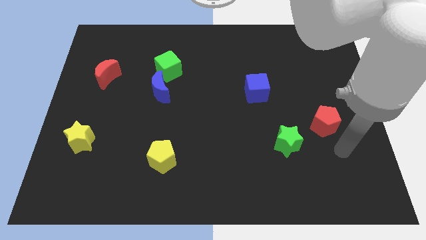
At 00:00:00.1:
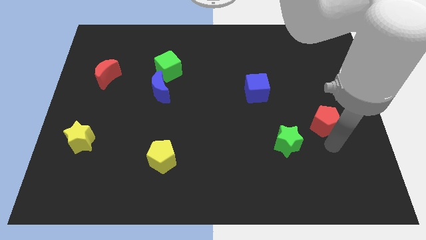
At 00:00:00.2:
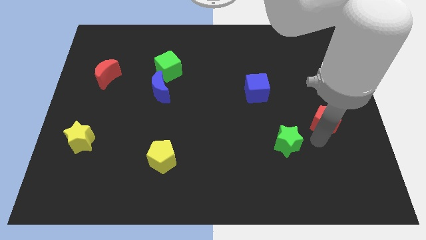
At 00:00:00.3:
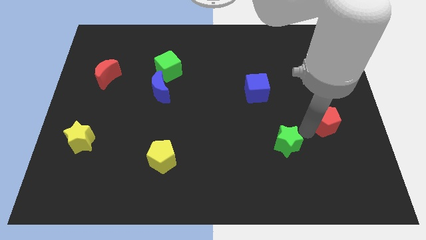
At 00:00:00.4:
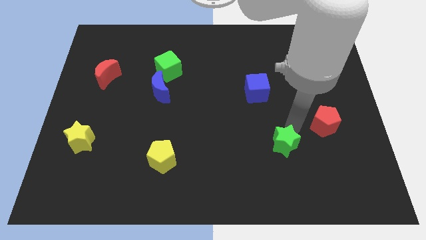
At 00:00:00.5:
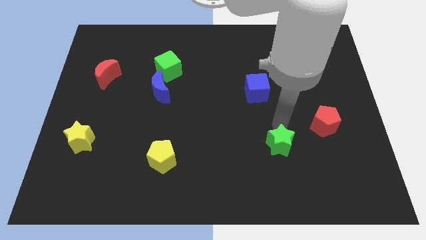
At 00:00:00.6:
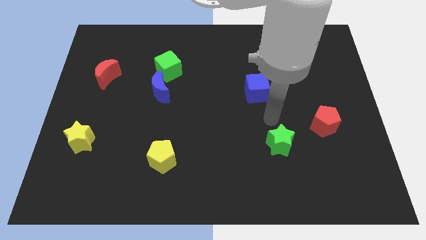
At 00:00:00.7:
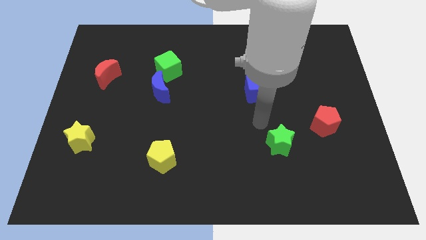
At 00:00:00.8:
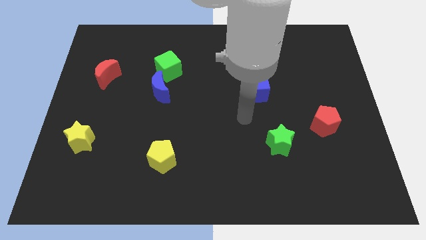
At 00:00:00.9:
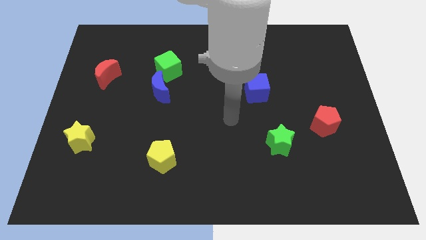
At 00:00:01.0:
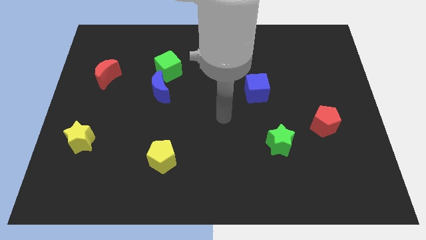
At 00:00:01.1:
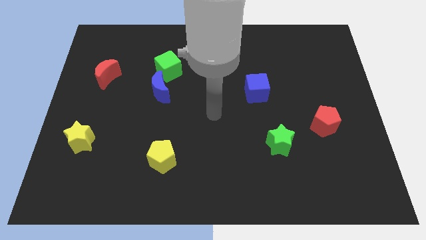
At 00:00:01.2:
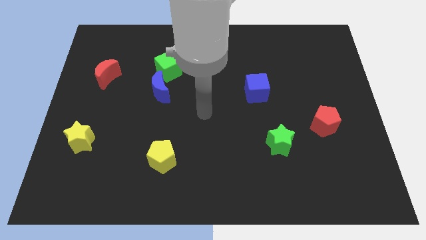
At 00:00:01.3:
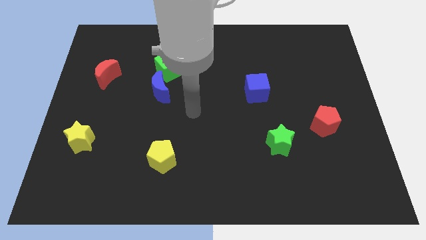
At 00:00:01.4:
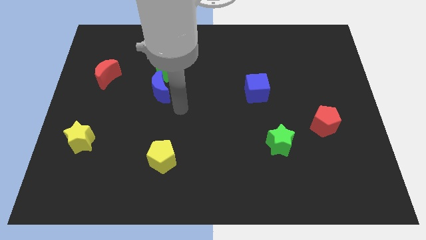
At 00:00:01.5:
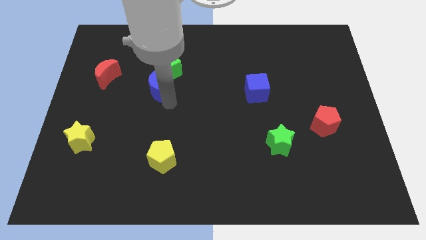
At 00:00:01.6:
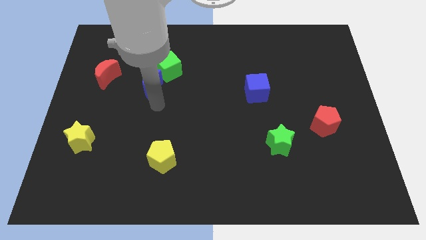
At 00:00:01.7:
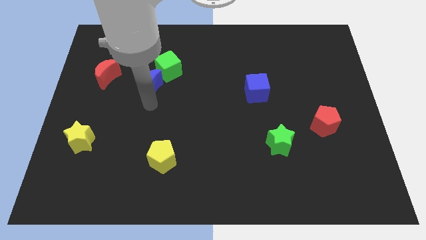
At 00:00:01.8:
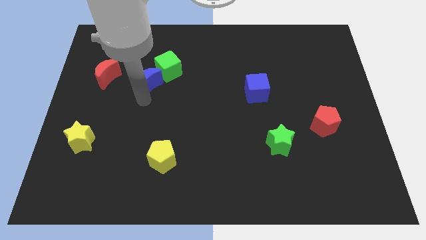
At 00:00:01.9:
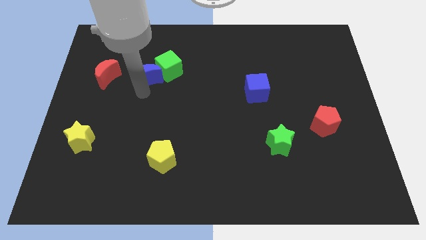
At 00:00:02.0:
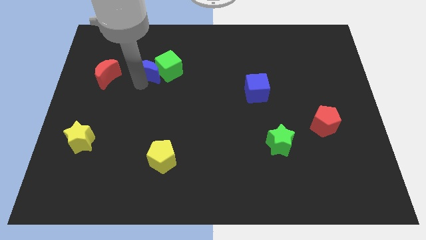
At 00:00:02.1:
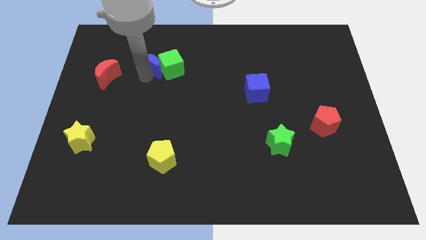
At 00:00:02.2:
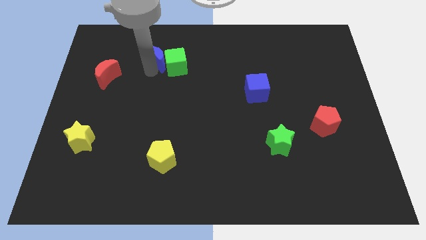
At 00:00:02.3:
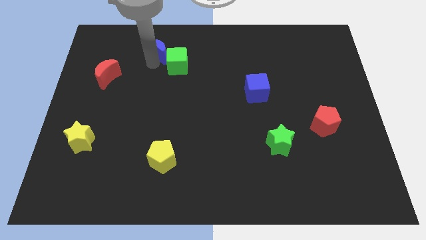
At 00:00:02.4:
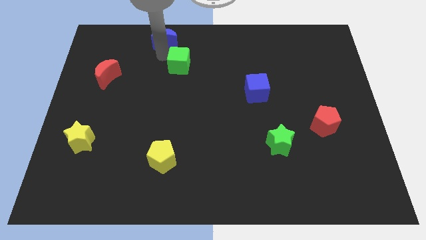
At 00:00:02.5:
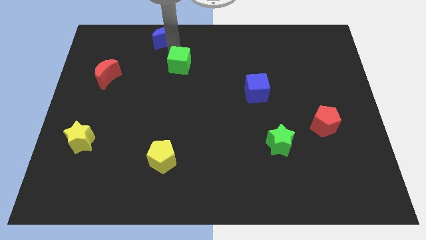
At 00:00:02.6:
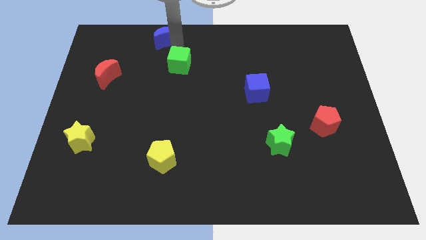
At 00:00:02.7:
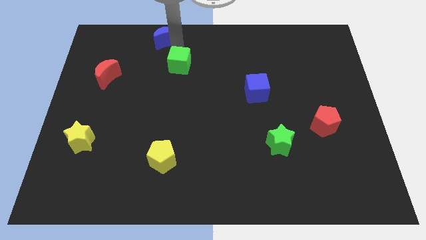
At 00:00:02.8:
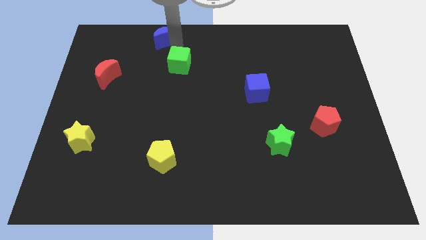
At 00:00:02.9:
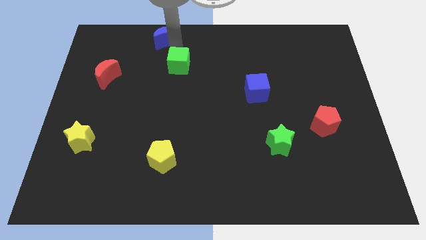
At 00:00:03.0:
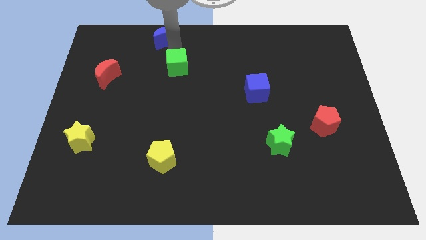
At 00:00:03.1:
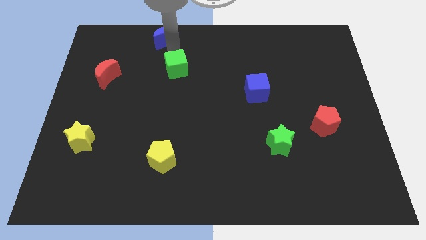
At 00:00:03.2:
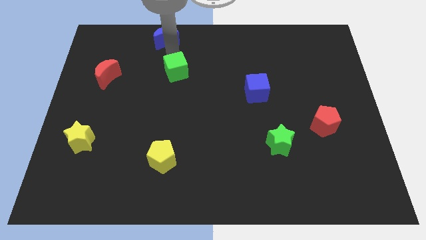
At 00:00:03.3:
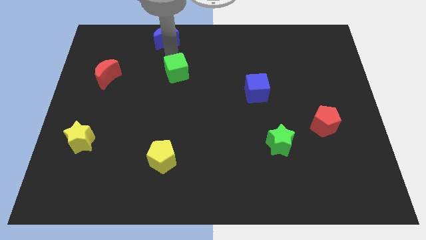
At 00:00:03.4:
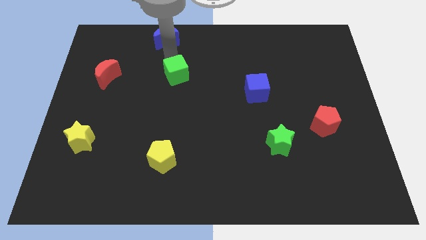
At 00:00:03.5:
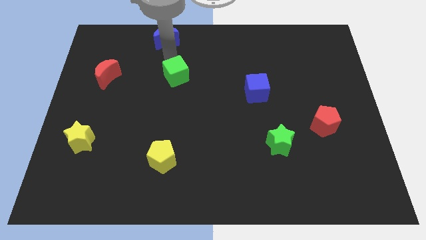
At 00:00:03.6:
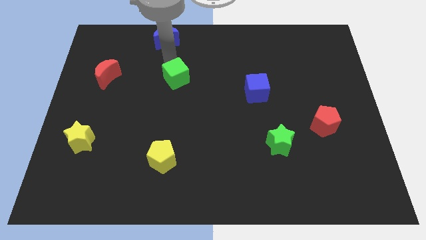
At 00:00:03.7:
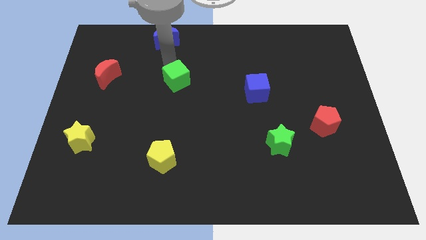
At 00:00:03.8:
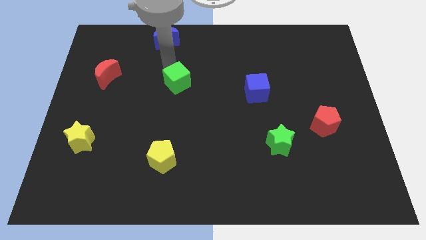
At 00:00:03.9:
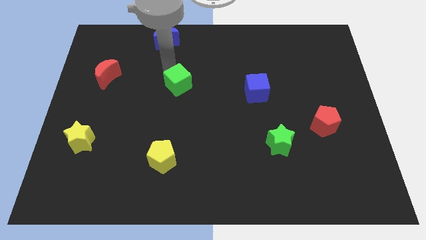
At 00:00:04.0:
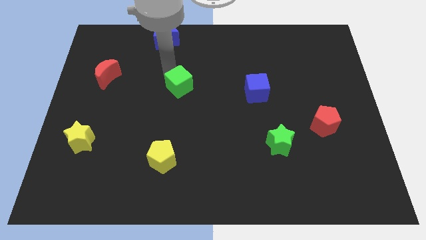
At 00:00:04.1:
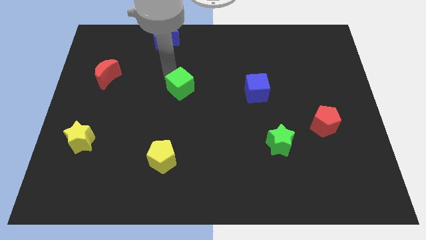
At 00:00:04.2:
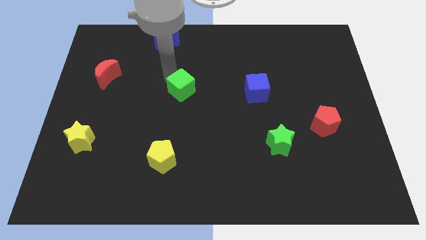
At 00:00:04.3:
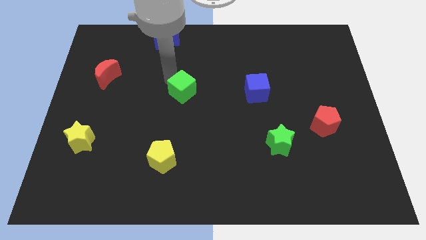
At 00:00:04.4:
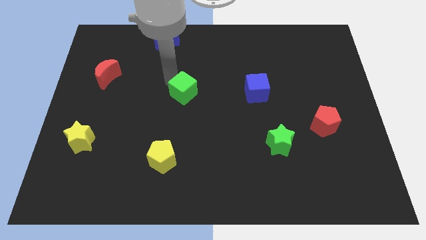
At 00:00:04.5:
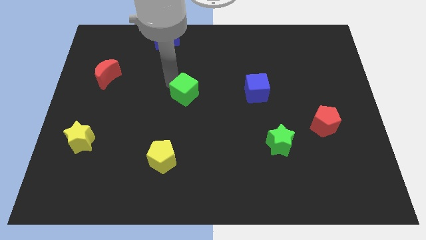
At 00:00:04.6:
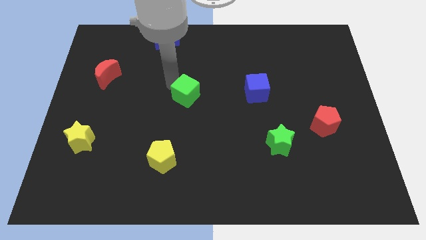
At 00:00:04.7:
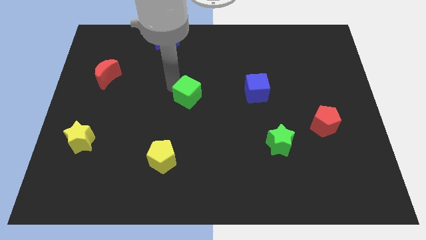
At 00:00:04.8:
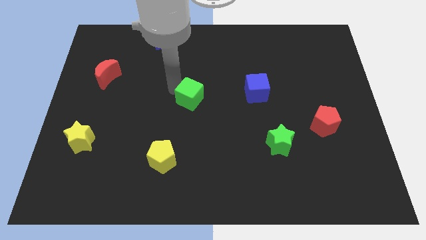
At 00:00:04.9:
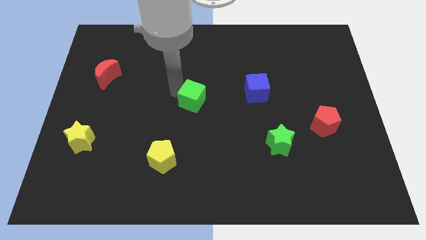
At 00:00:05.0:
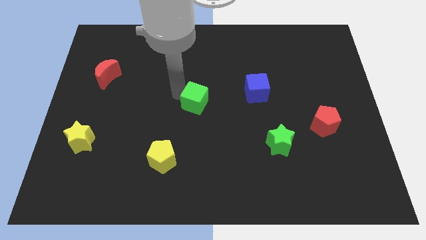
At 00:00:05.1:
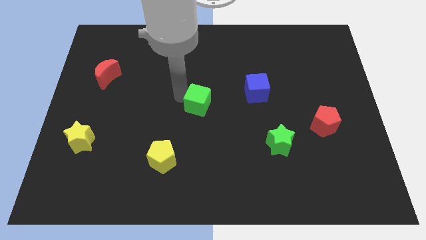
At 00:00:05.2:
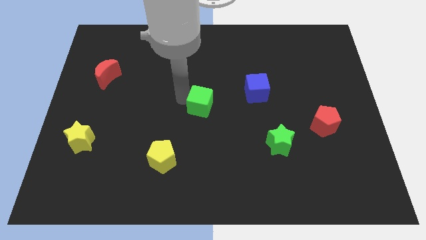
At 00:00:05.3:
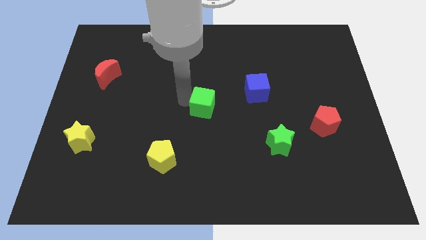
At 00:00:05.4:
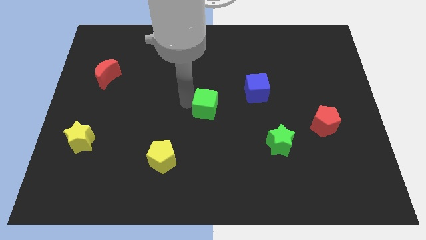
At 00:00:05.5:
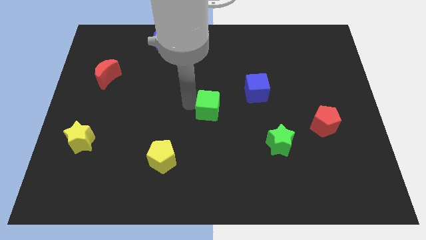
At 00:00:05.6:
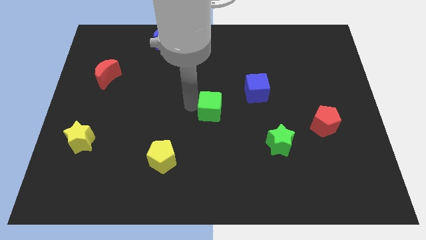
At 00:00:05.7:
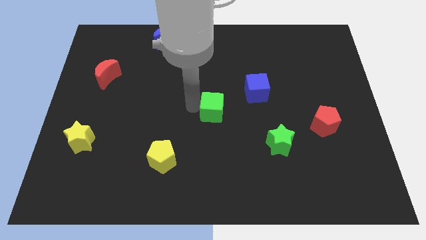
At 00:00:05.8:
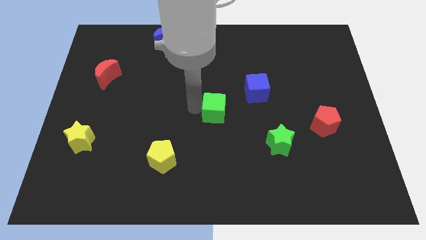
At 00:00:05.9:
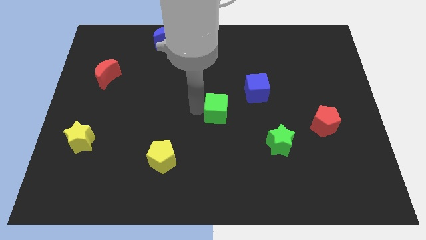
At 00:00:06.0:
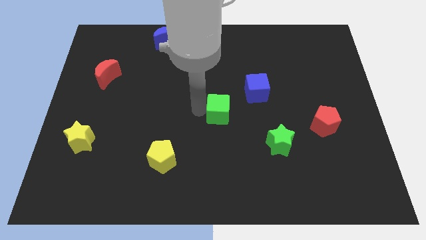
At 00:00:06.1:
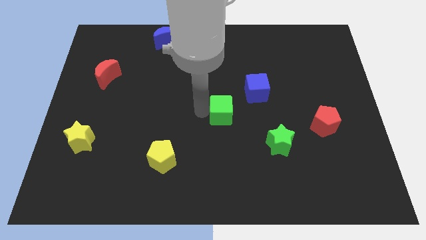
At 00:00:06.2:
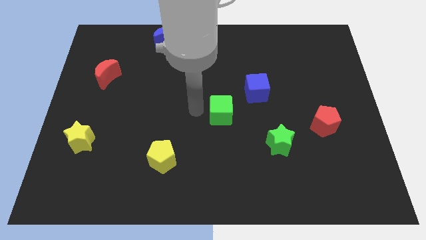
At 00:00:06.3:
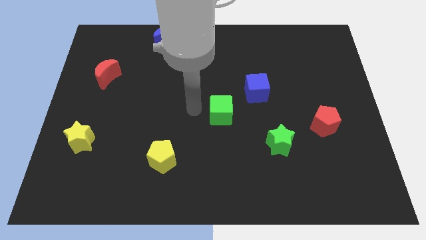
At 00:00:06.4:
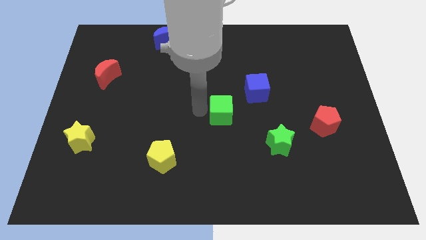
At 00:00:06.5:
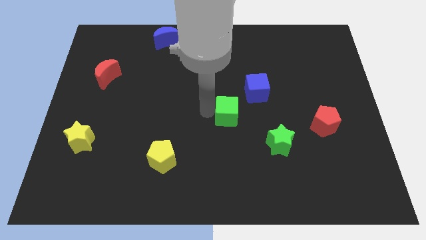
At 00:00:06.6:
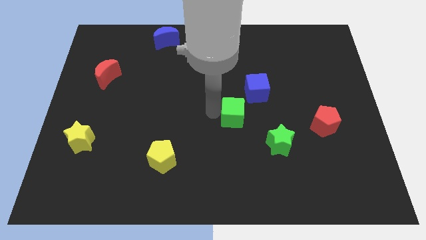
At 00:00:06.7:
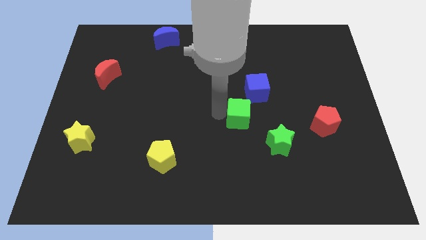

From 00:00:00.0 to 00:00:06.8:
move the green cube to the bottom side of the blue cube
